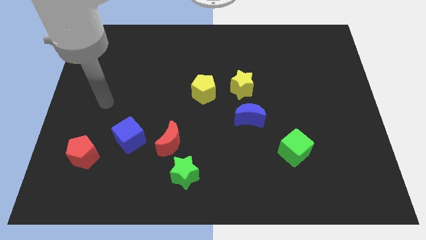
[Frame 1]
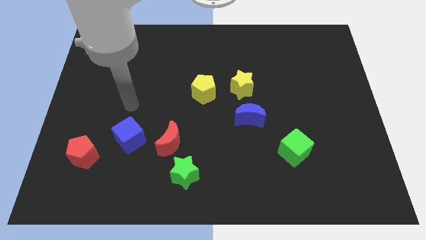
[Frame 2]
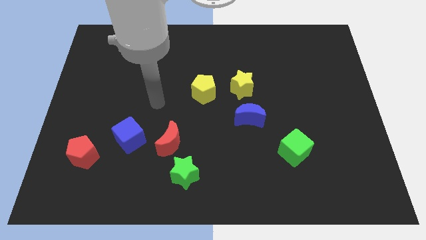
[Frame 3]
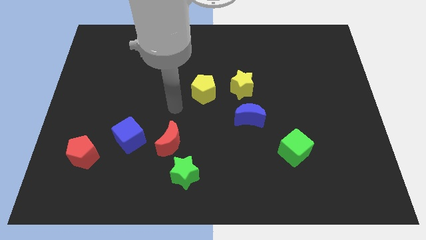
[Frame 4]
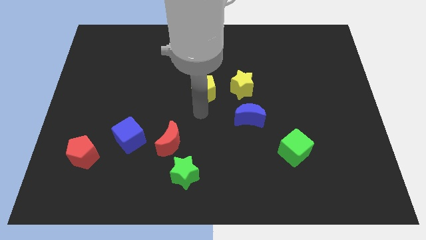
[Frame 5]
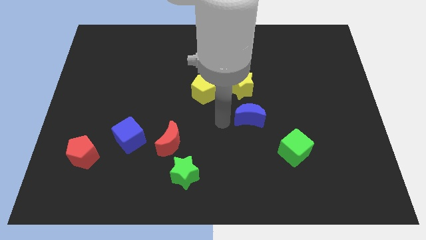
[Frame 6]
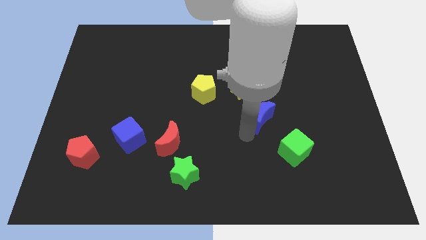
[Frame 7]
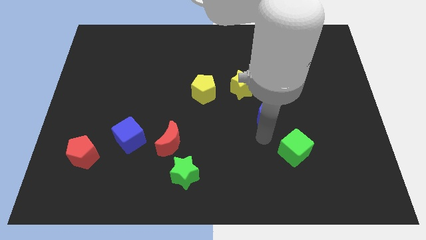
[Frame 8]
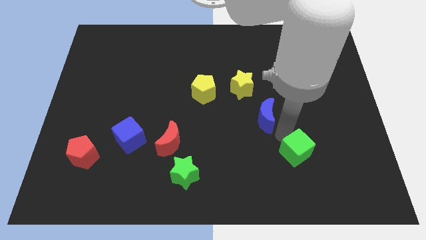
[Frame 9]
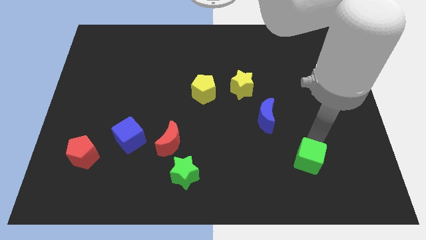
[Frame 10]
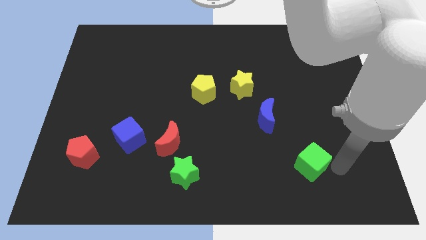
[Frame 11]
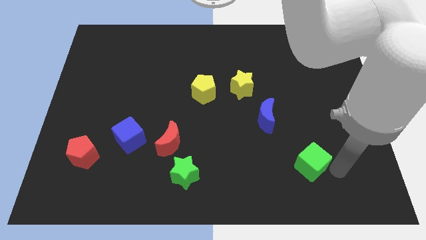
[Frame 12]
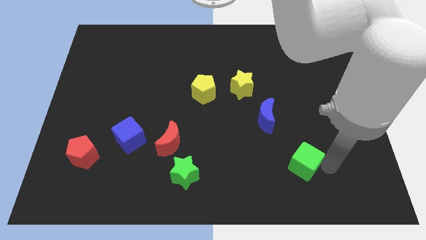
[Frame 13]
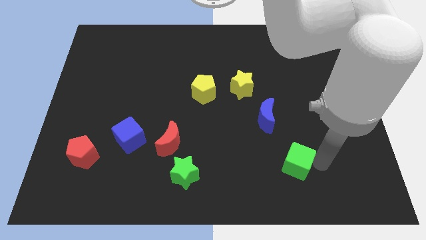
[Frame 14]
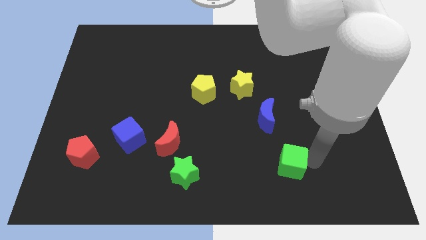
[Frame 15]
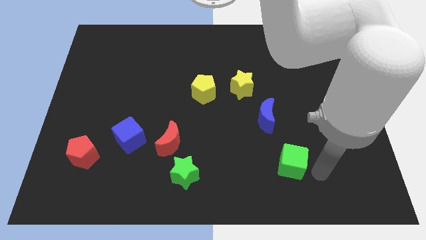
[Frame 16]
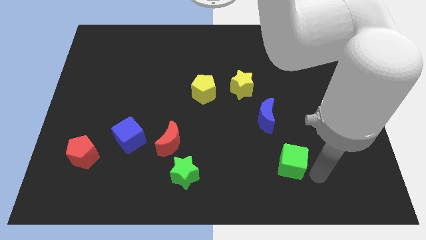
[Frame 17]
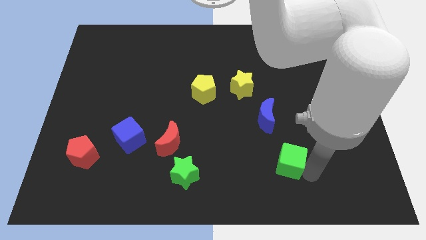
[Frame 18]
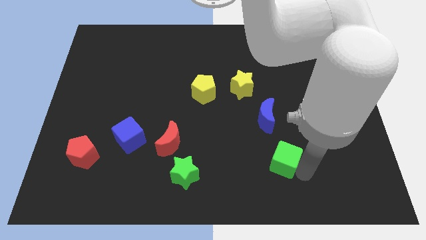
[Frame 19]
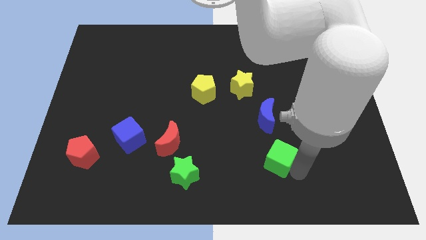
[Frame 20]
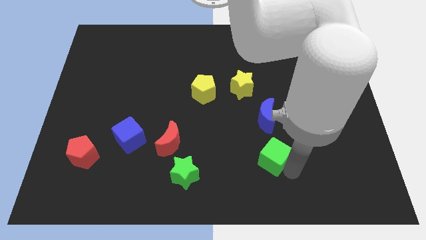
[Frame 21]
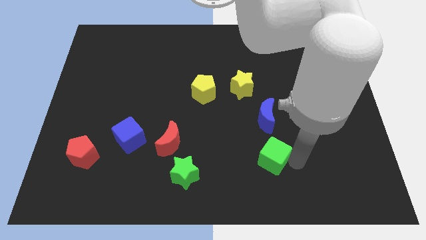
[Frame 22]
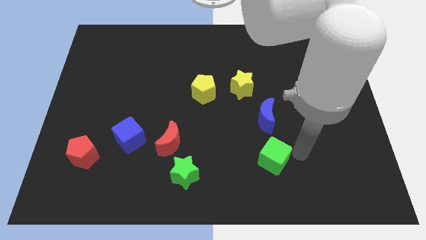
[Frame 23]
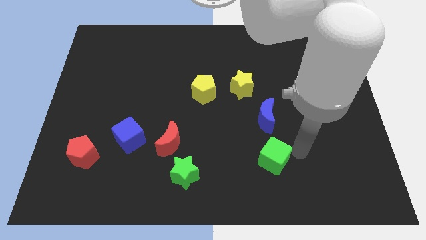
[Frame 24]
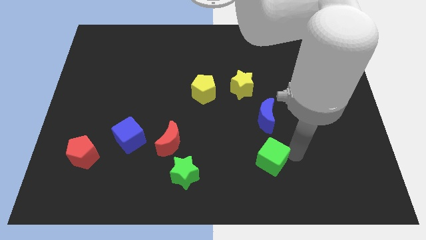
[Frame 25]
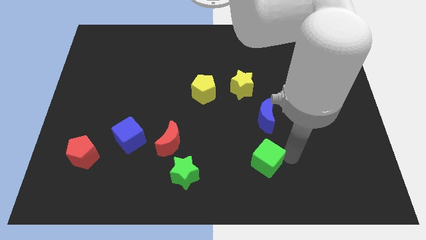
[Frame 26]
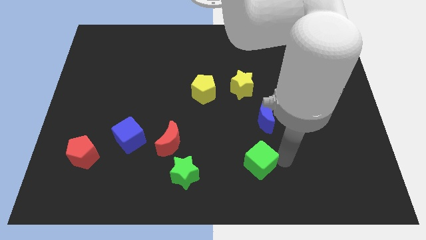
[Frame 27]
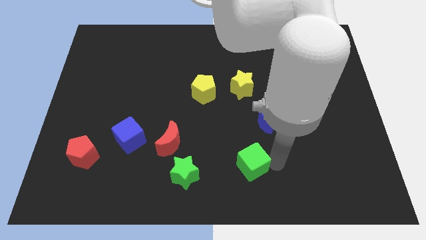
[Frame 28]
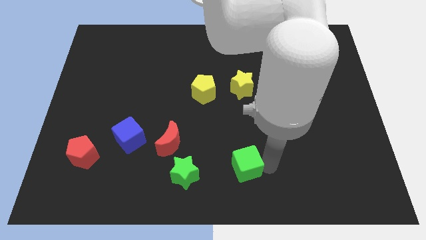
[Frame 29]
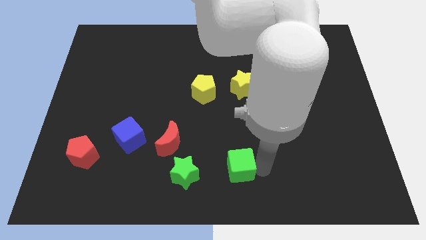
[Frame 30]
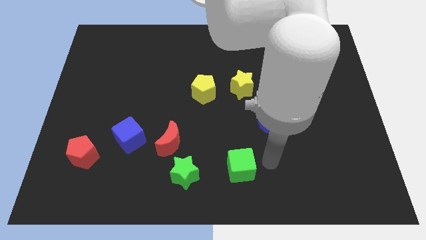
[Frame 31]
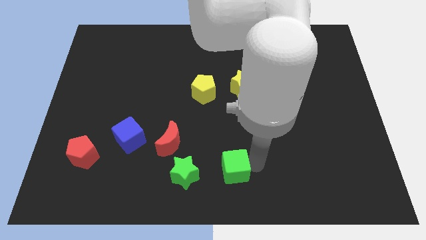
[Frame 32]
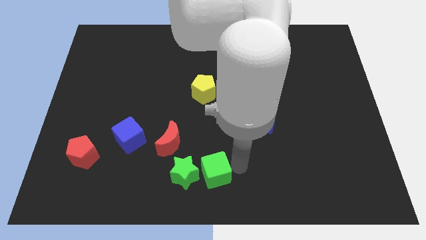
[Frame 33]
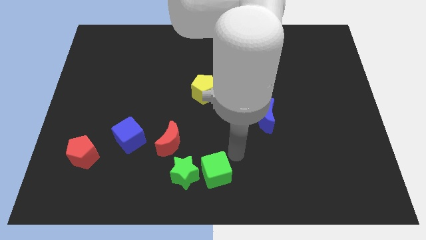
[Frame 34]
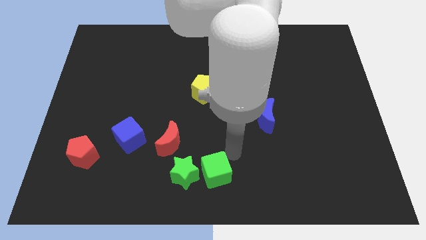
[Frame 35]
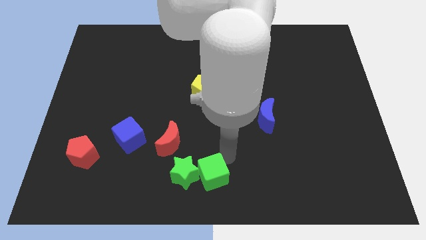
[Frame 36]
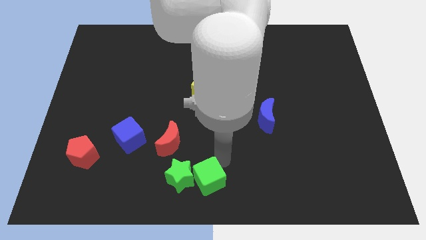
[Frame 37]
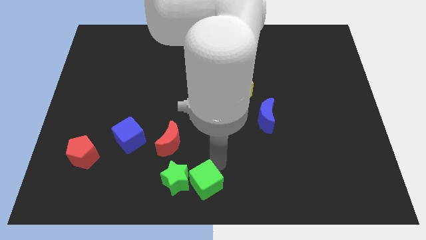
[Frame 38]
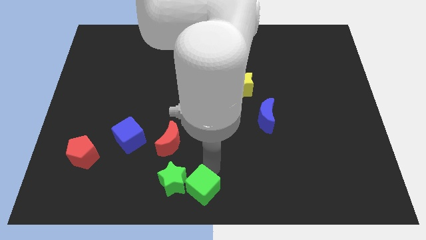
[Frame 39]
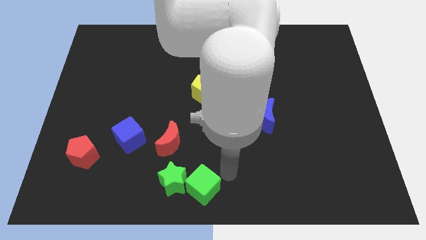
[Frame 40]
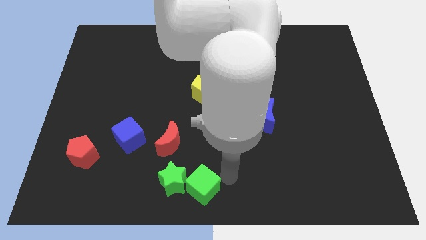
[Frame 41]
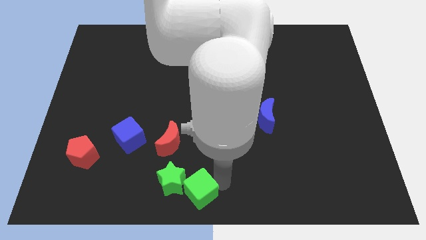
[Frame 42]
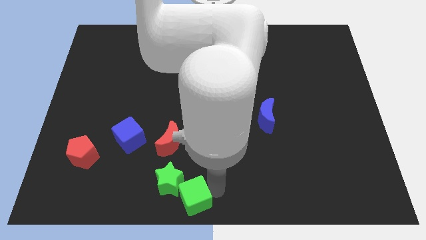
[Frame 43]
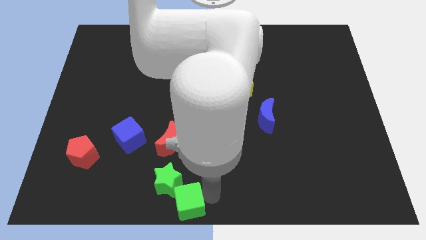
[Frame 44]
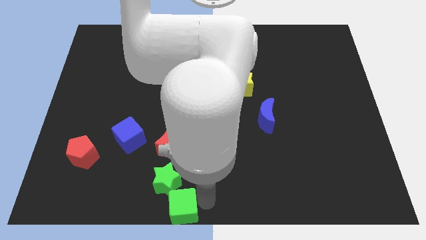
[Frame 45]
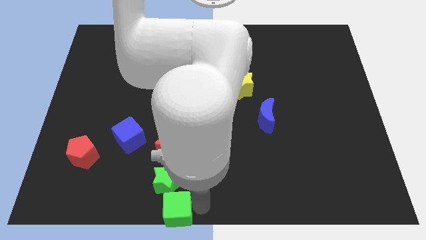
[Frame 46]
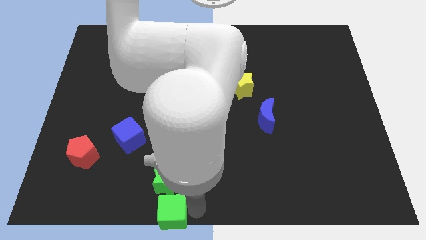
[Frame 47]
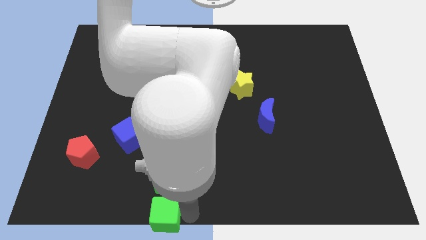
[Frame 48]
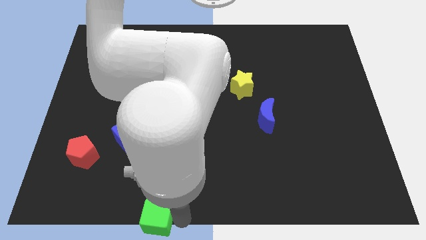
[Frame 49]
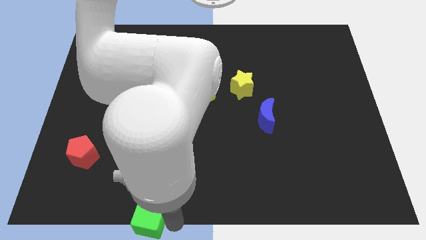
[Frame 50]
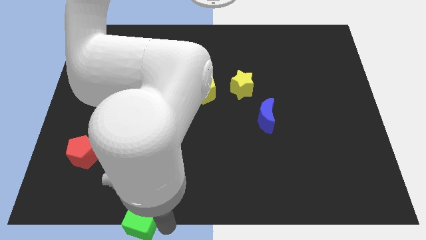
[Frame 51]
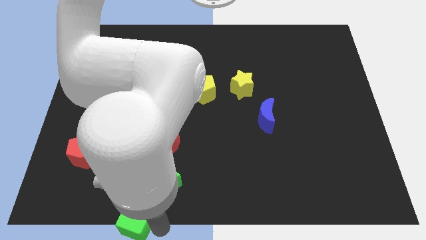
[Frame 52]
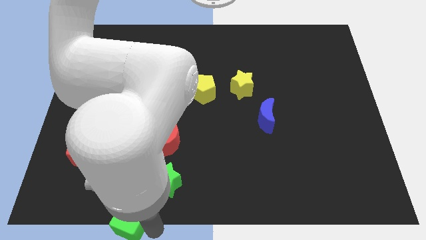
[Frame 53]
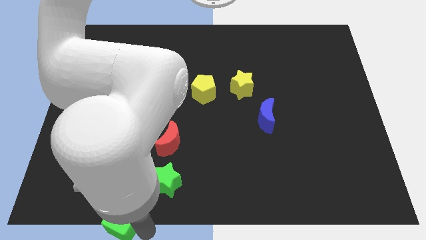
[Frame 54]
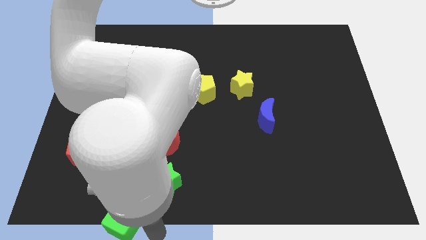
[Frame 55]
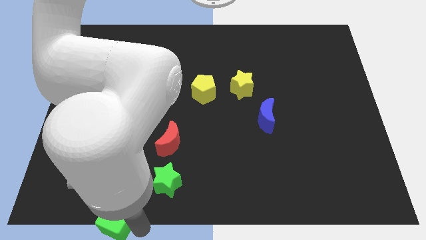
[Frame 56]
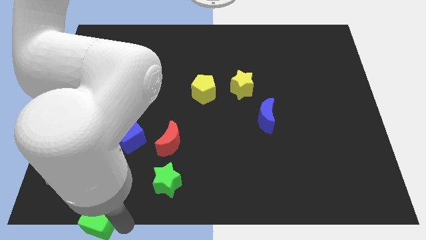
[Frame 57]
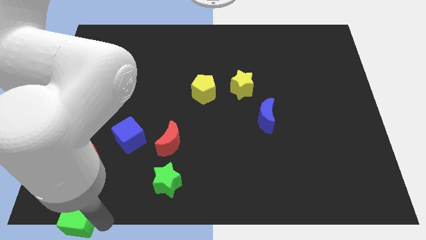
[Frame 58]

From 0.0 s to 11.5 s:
slide the green cube to the lower left corner

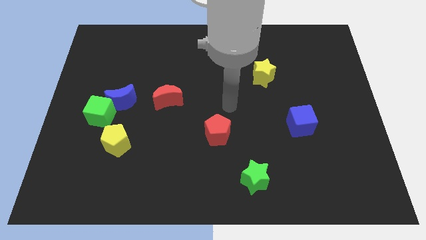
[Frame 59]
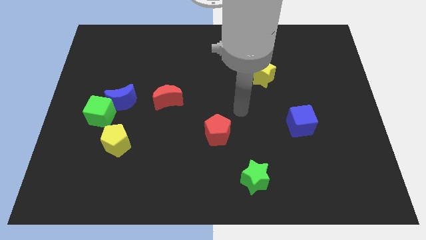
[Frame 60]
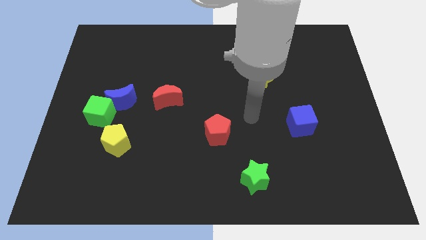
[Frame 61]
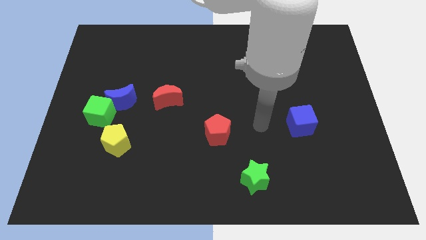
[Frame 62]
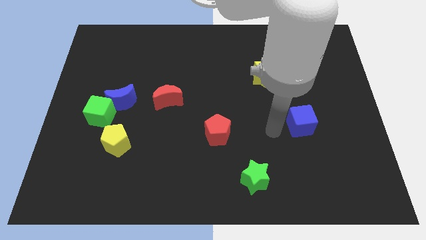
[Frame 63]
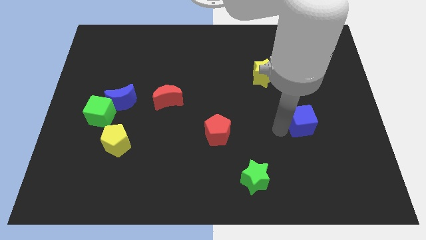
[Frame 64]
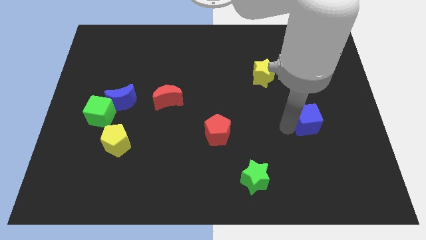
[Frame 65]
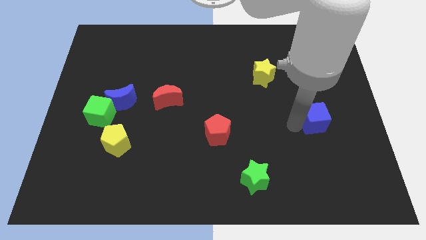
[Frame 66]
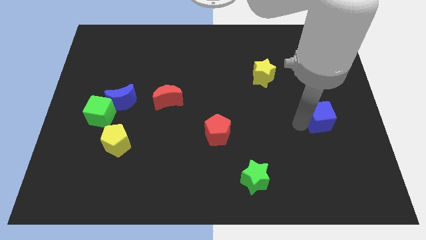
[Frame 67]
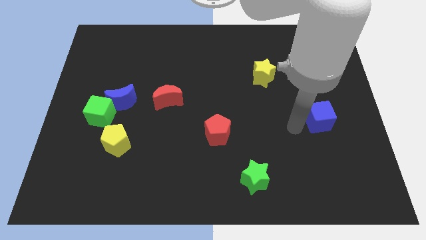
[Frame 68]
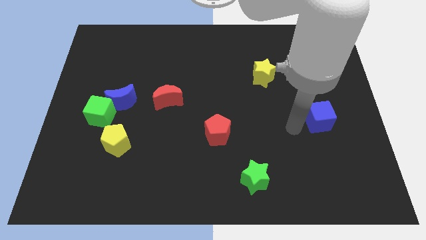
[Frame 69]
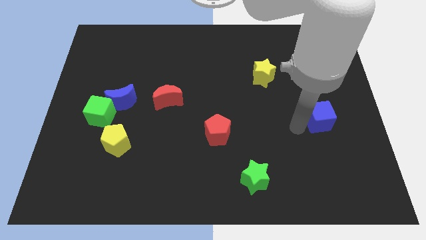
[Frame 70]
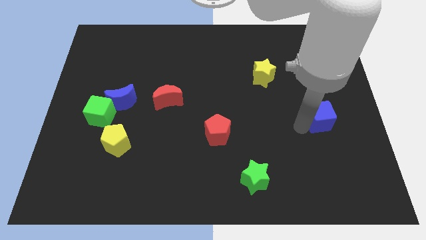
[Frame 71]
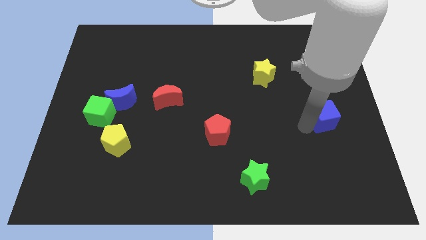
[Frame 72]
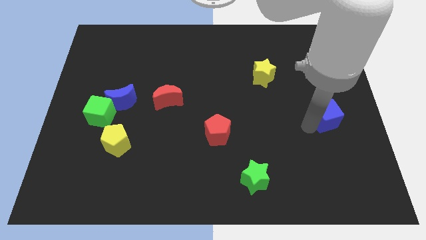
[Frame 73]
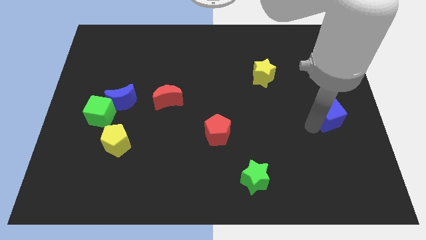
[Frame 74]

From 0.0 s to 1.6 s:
slide the blue cube to the right side of the board
